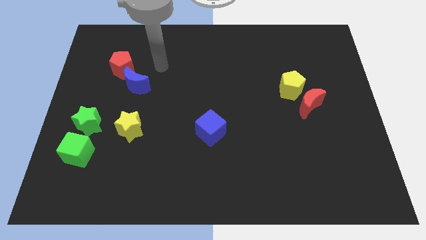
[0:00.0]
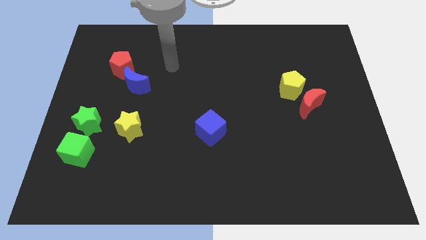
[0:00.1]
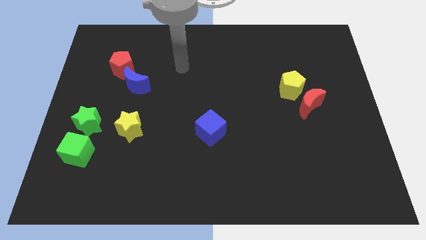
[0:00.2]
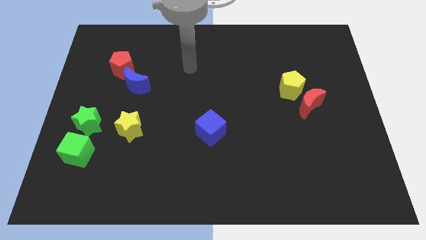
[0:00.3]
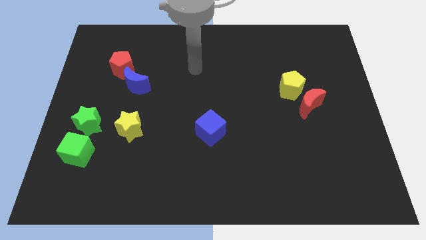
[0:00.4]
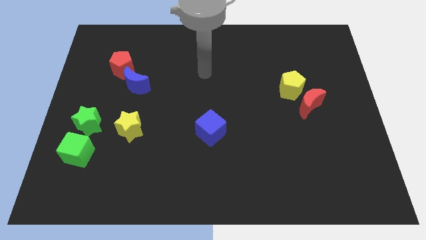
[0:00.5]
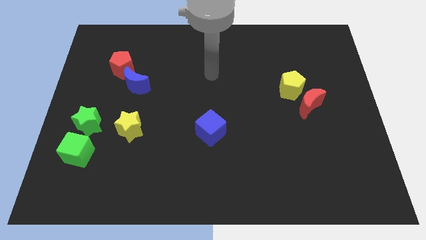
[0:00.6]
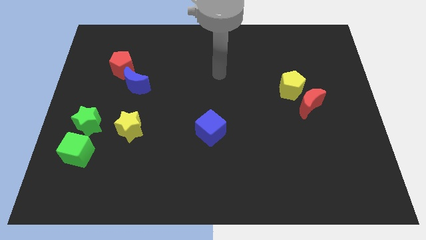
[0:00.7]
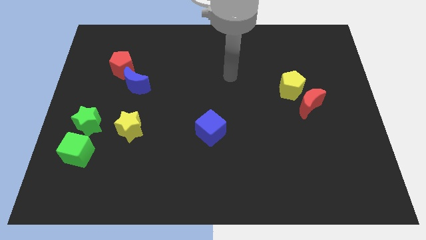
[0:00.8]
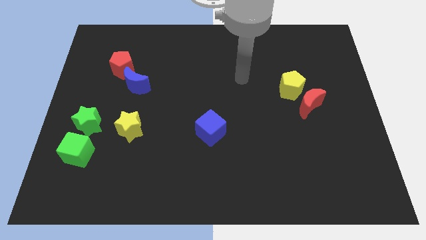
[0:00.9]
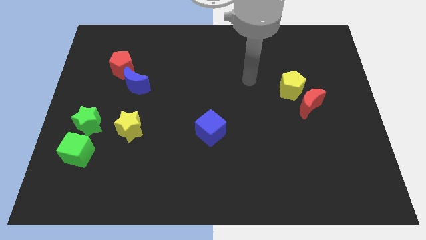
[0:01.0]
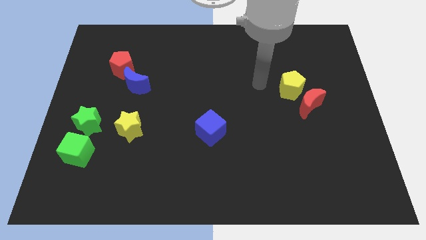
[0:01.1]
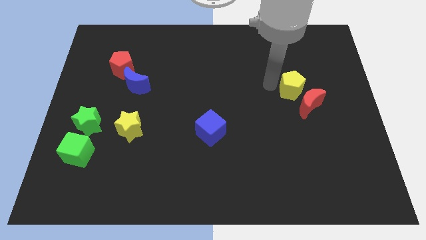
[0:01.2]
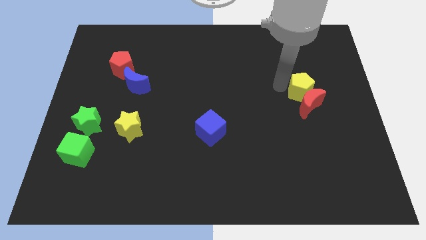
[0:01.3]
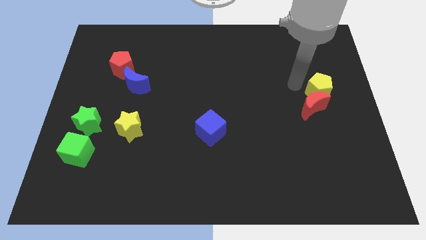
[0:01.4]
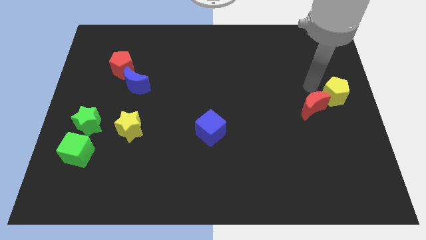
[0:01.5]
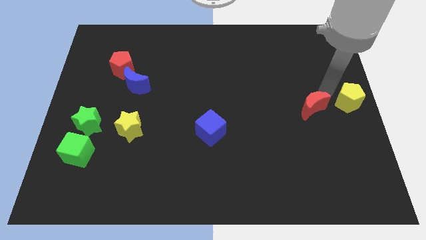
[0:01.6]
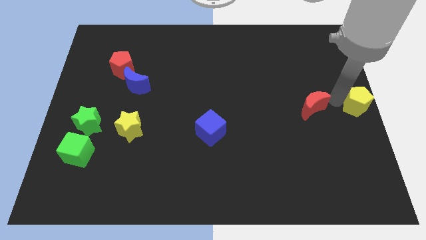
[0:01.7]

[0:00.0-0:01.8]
pull the red moon apart from the yellow pentagon

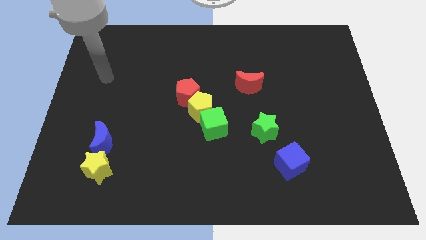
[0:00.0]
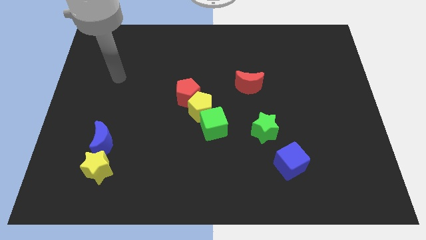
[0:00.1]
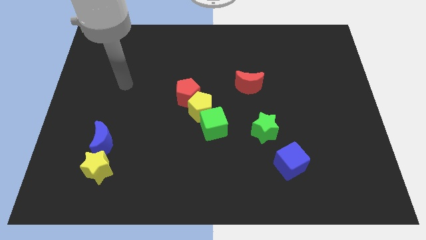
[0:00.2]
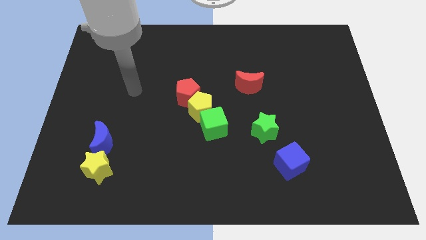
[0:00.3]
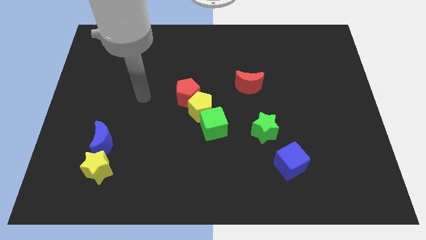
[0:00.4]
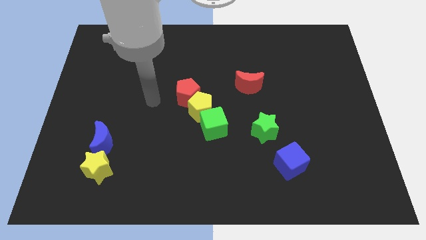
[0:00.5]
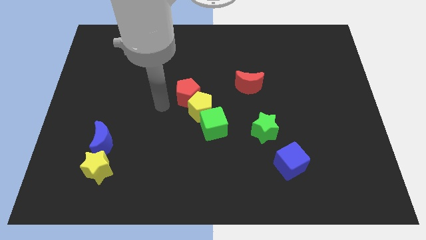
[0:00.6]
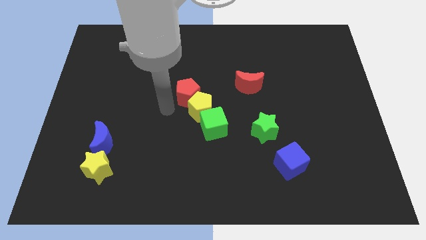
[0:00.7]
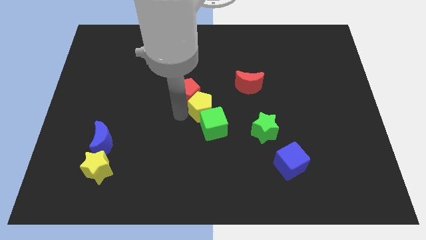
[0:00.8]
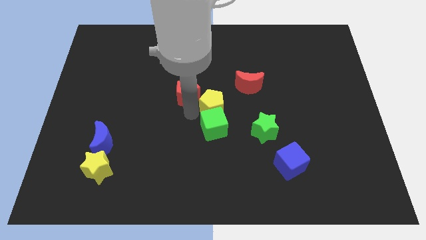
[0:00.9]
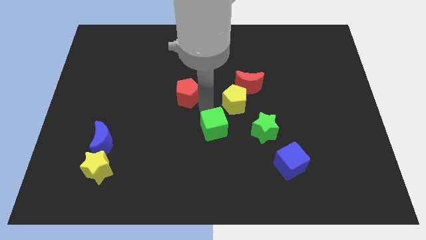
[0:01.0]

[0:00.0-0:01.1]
move the red pentagon away from the yellow pentagon

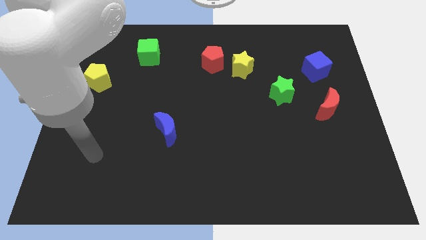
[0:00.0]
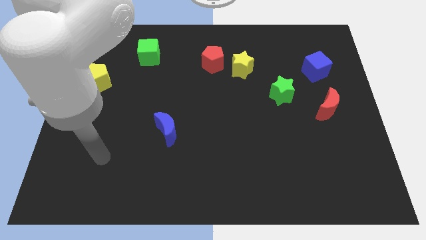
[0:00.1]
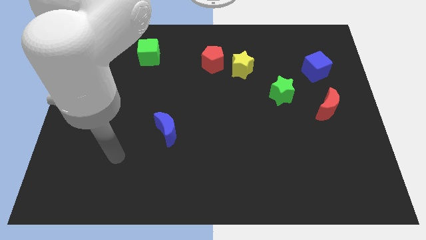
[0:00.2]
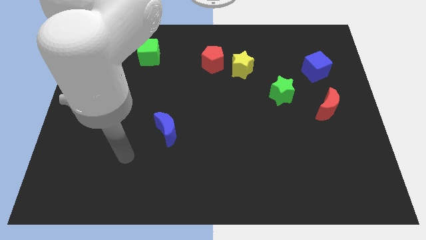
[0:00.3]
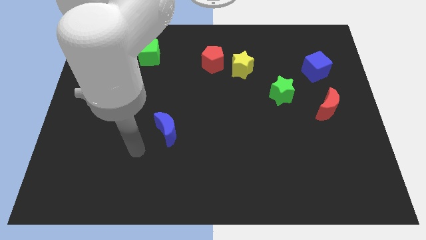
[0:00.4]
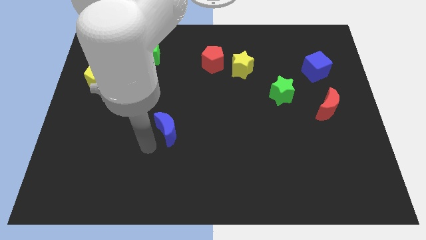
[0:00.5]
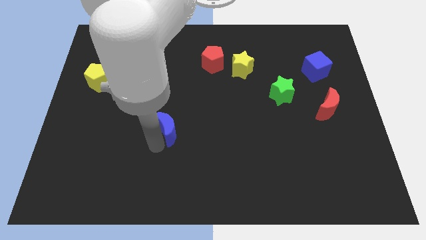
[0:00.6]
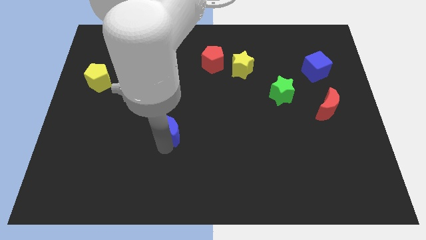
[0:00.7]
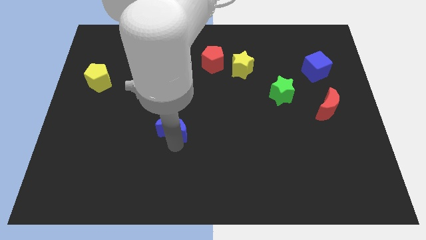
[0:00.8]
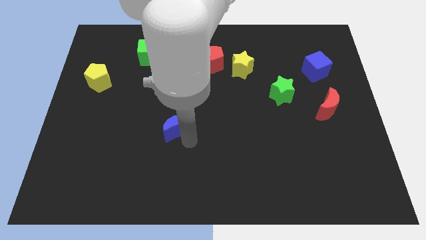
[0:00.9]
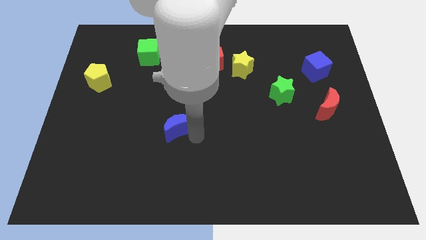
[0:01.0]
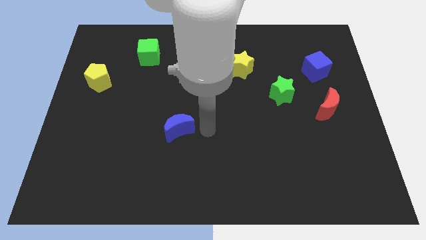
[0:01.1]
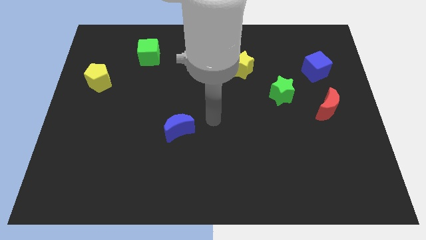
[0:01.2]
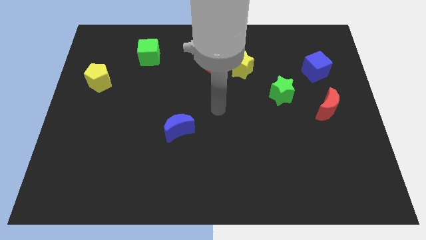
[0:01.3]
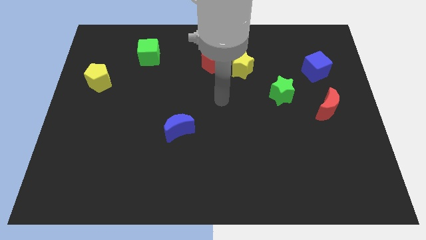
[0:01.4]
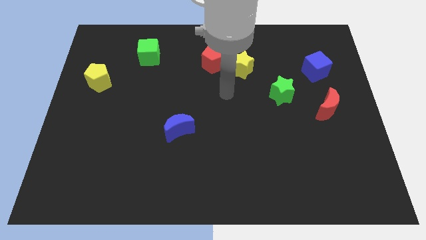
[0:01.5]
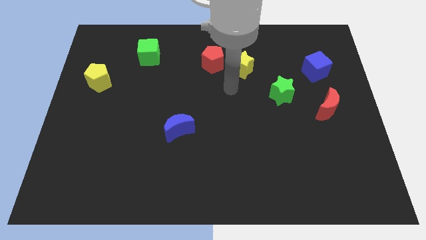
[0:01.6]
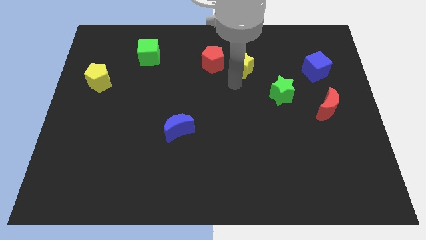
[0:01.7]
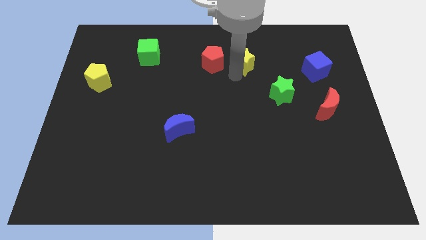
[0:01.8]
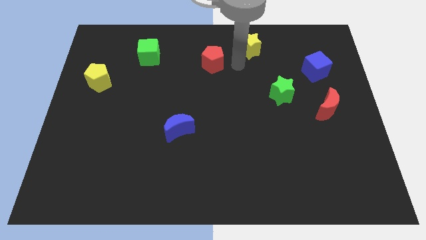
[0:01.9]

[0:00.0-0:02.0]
move the red pentagon away from the yellow star

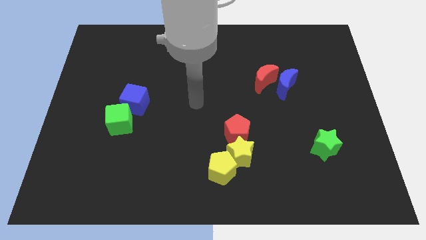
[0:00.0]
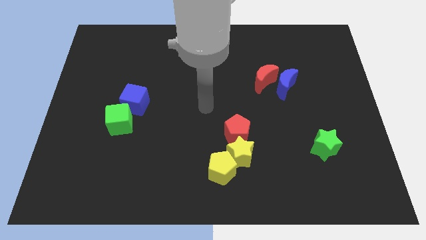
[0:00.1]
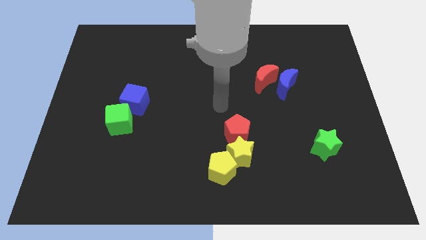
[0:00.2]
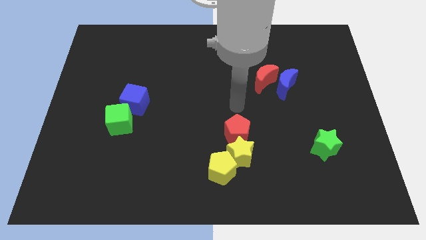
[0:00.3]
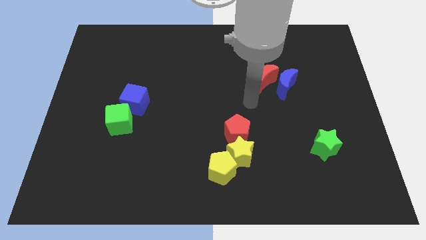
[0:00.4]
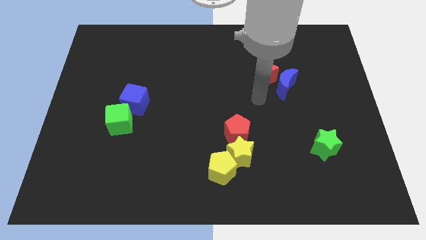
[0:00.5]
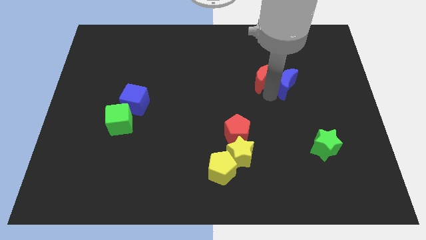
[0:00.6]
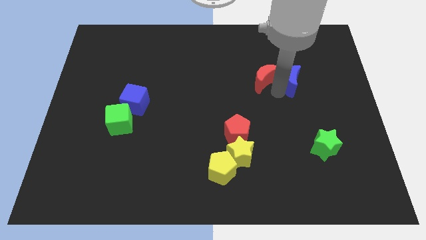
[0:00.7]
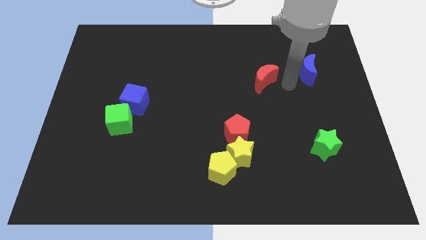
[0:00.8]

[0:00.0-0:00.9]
move the red moon away from the blue moon

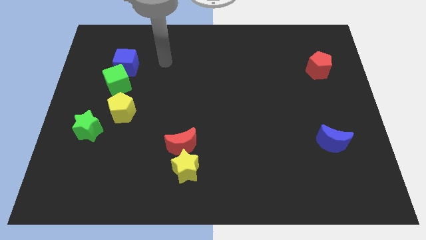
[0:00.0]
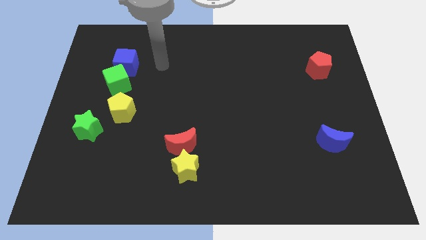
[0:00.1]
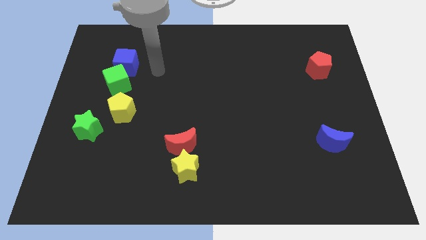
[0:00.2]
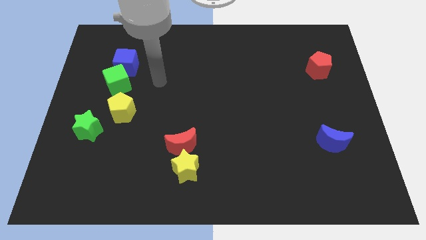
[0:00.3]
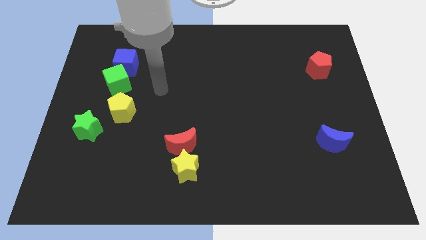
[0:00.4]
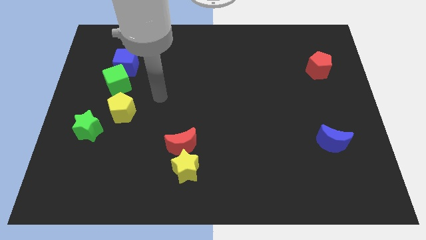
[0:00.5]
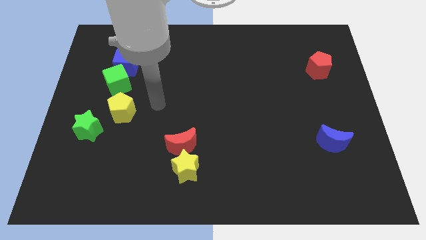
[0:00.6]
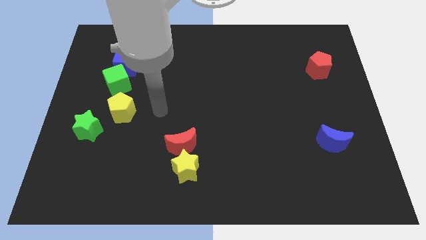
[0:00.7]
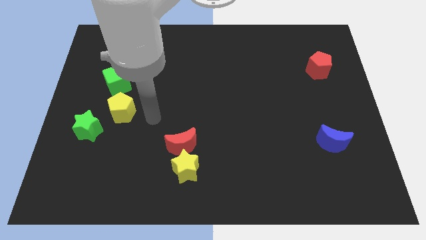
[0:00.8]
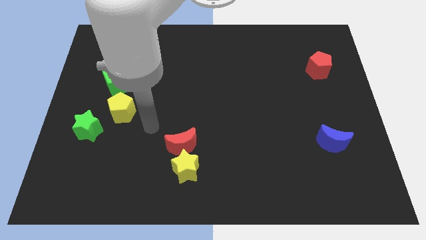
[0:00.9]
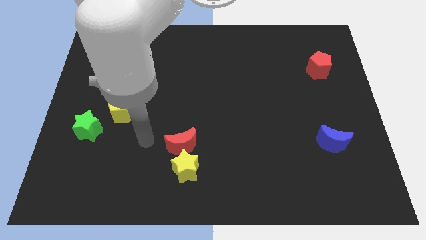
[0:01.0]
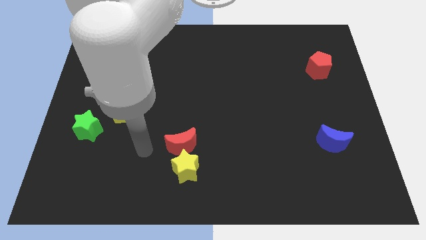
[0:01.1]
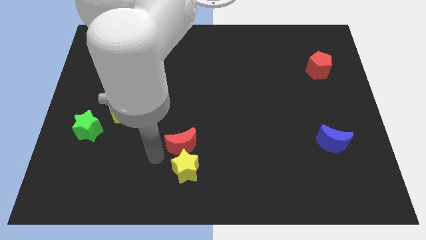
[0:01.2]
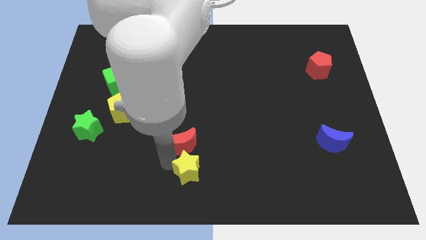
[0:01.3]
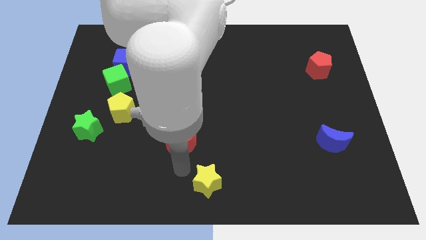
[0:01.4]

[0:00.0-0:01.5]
pull the red moon apart from the yellow star

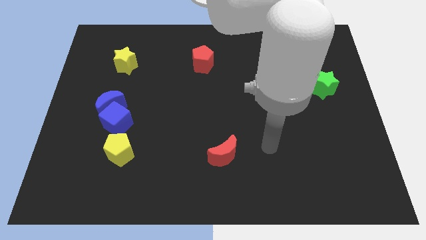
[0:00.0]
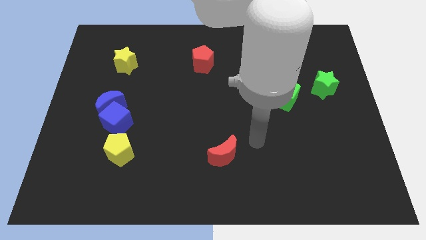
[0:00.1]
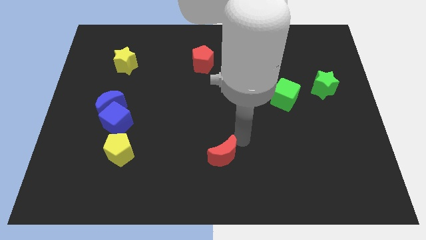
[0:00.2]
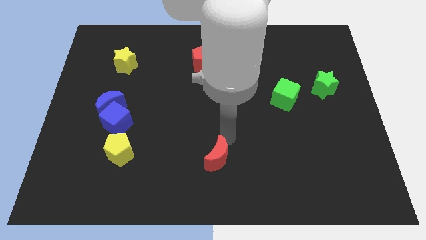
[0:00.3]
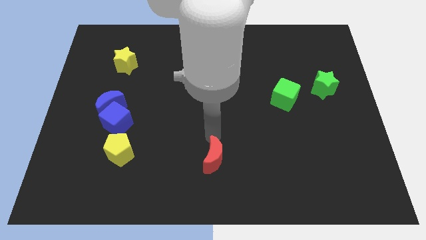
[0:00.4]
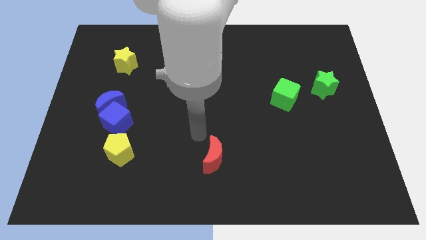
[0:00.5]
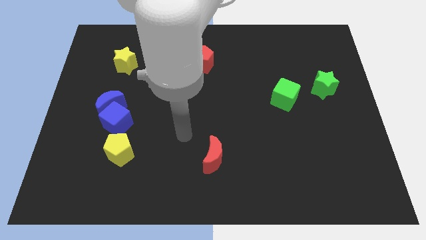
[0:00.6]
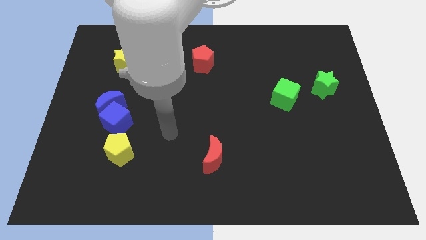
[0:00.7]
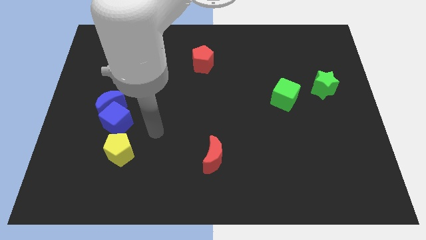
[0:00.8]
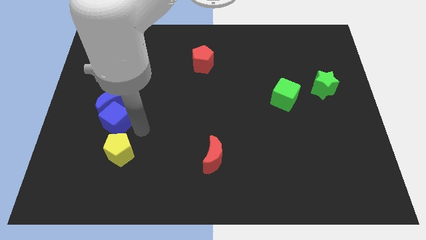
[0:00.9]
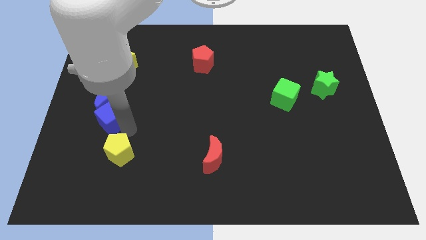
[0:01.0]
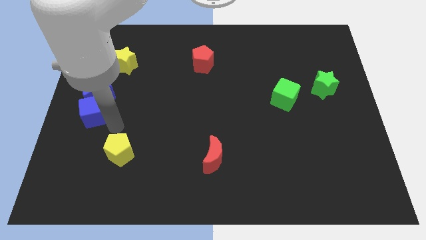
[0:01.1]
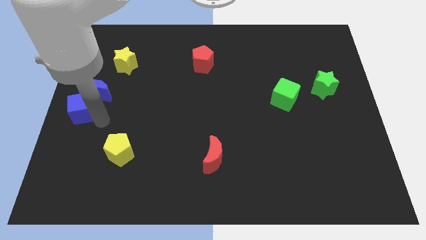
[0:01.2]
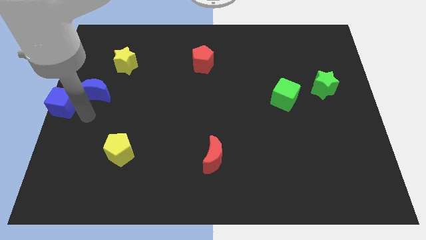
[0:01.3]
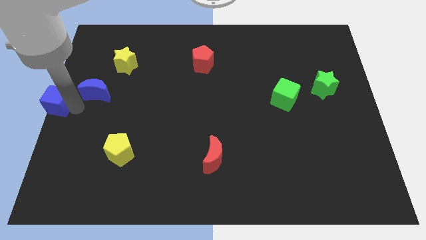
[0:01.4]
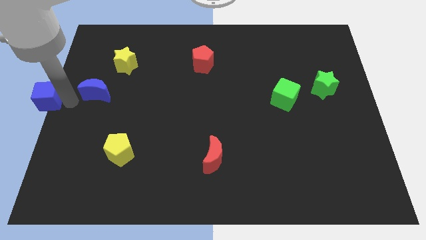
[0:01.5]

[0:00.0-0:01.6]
pull the blue moon apart from the blue cube

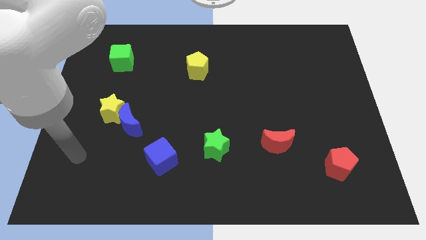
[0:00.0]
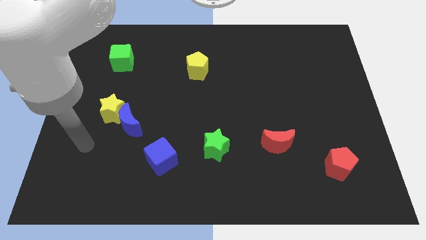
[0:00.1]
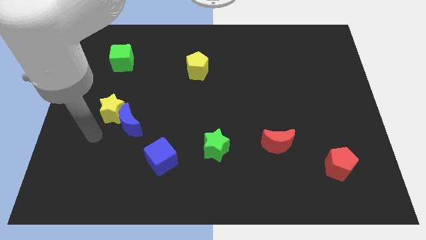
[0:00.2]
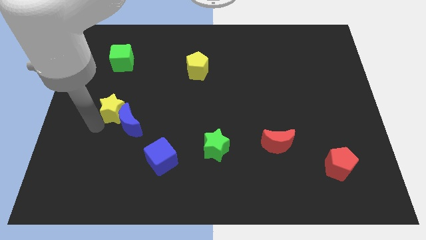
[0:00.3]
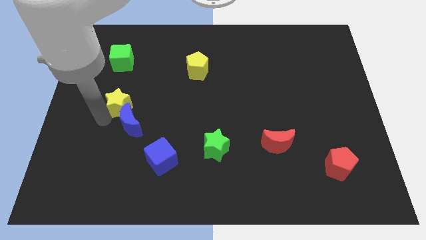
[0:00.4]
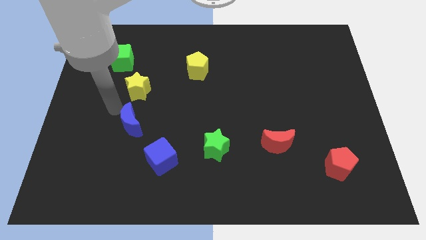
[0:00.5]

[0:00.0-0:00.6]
pull the blue moon apart from the yellow star
